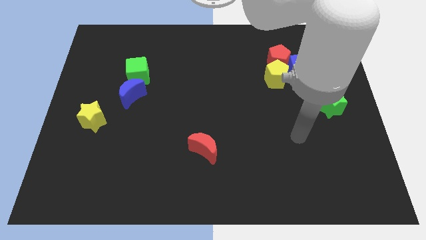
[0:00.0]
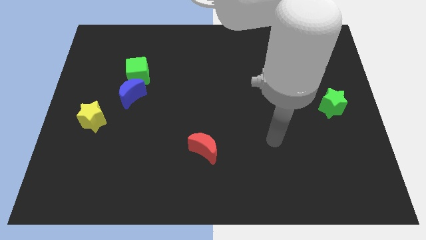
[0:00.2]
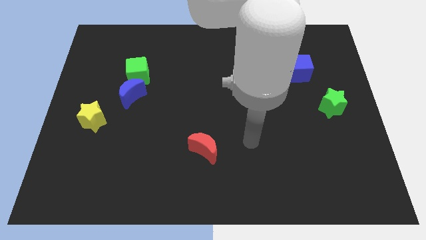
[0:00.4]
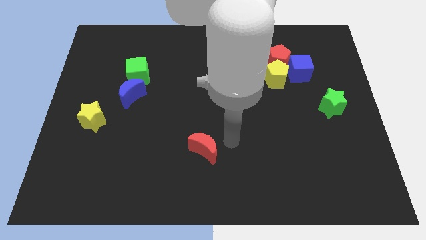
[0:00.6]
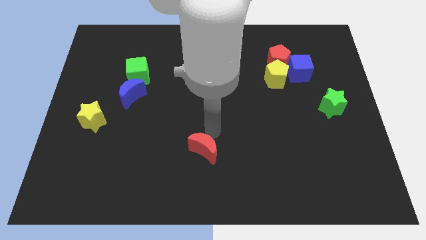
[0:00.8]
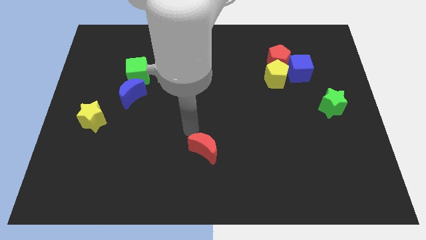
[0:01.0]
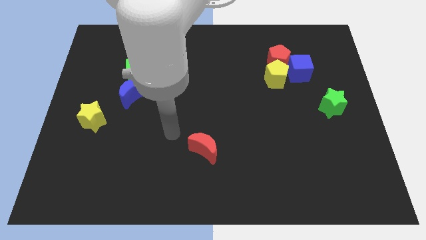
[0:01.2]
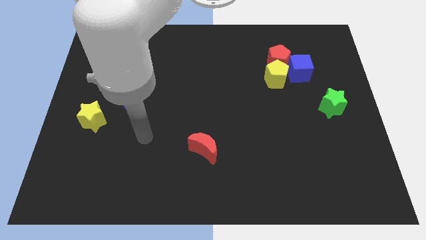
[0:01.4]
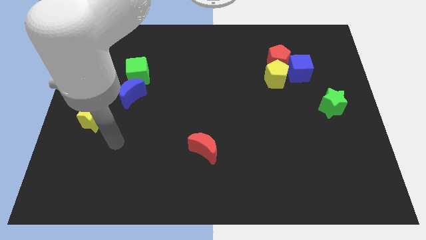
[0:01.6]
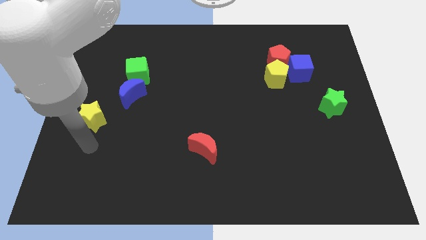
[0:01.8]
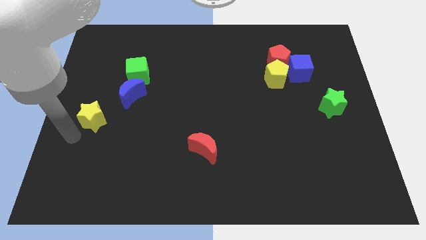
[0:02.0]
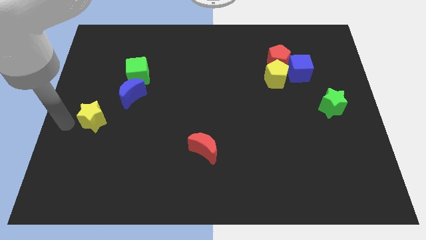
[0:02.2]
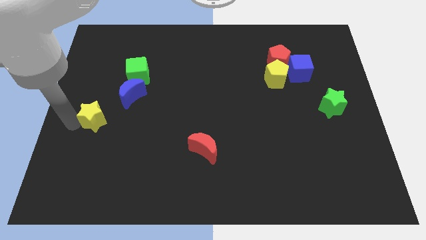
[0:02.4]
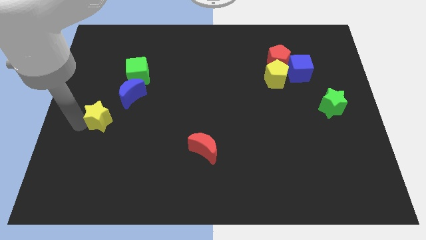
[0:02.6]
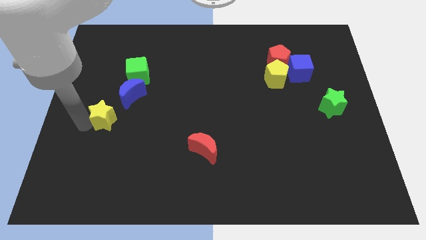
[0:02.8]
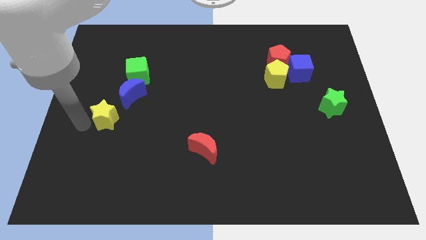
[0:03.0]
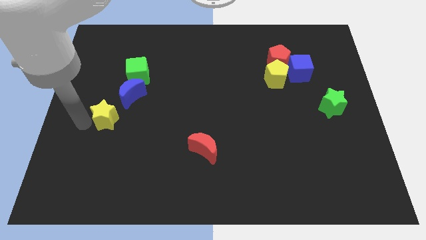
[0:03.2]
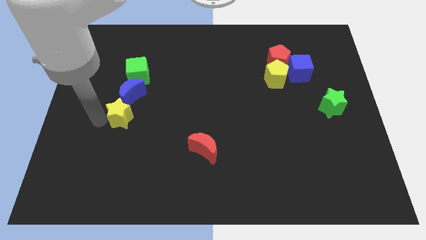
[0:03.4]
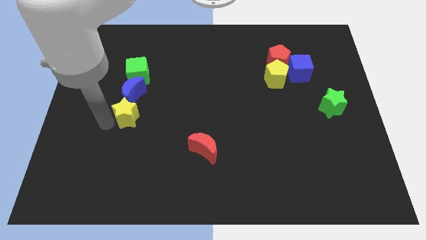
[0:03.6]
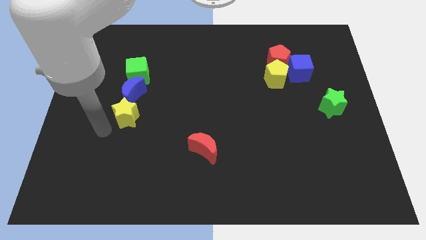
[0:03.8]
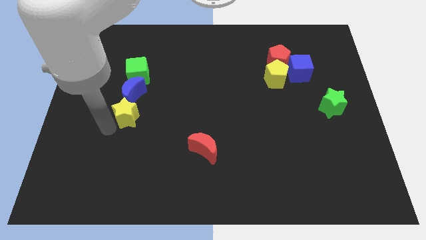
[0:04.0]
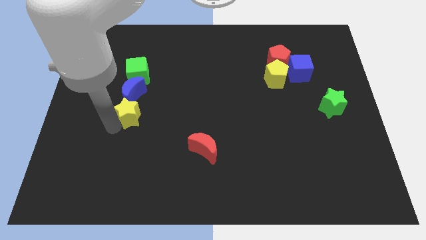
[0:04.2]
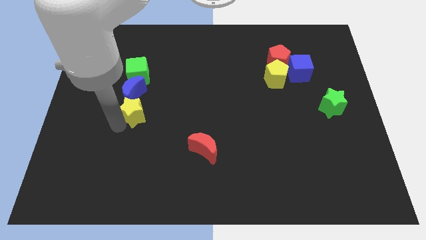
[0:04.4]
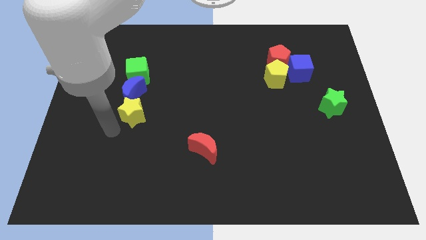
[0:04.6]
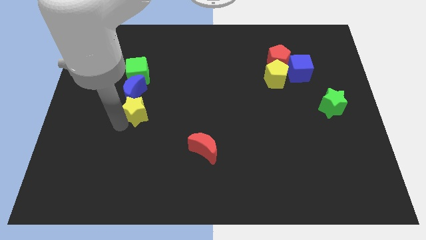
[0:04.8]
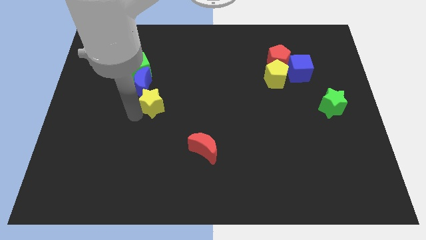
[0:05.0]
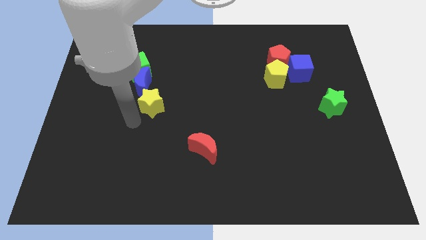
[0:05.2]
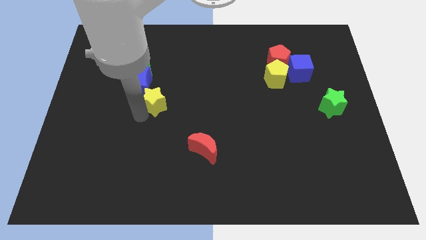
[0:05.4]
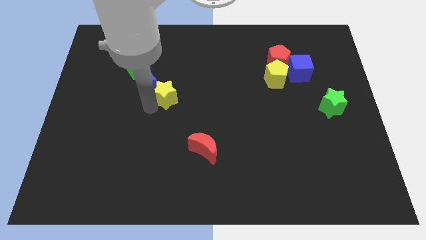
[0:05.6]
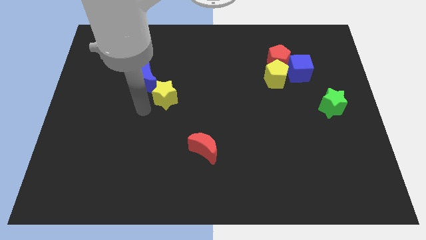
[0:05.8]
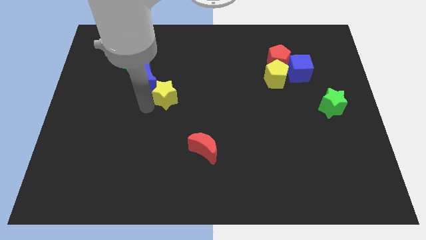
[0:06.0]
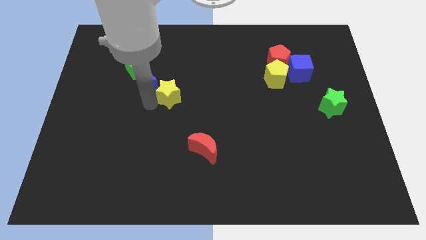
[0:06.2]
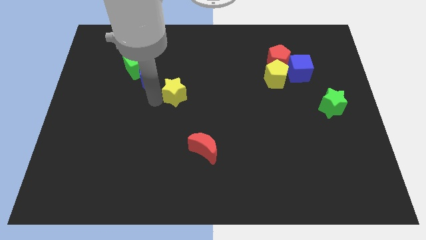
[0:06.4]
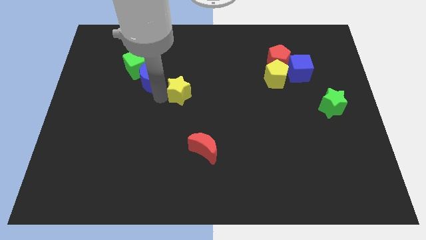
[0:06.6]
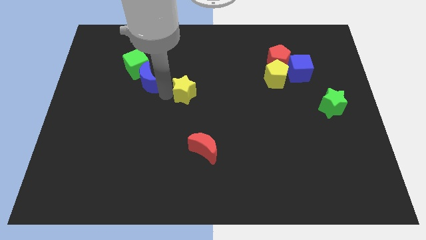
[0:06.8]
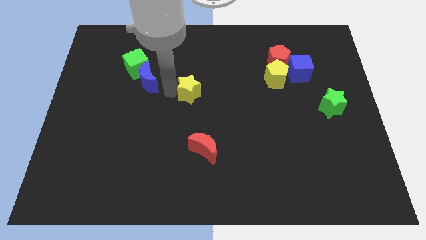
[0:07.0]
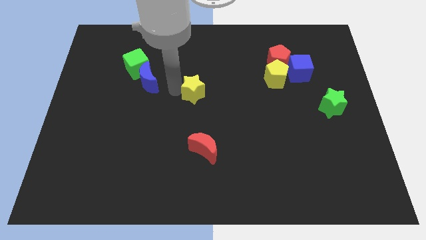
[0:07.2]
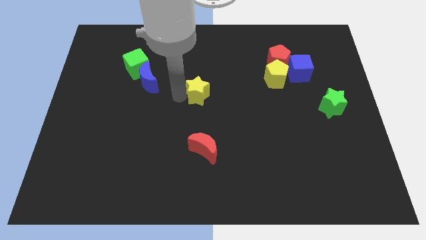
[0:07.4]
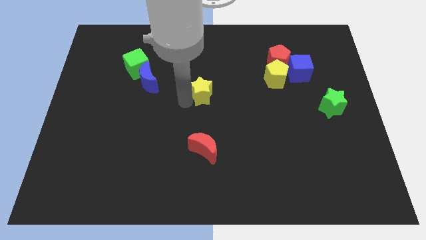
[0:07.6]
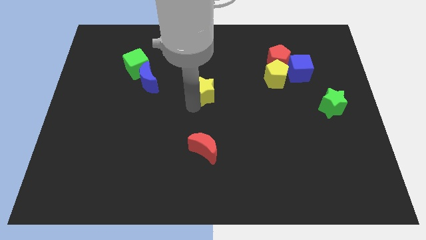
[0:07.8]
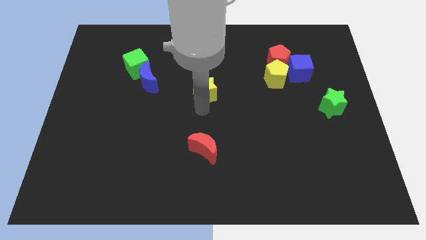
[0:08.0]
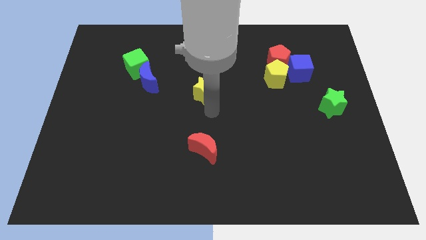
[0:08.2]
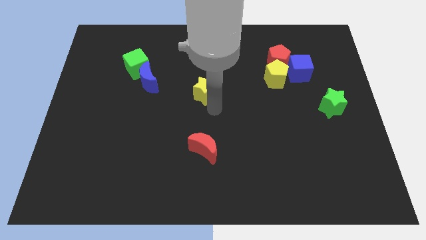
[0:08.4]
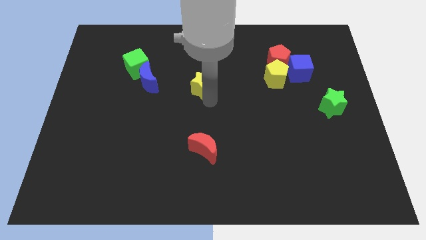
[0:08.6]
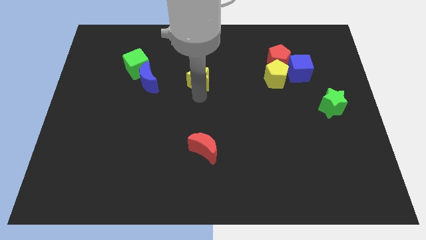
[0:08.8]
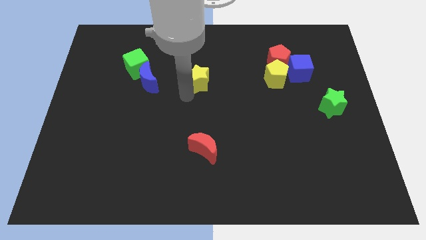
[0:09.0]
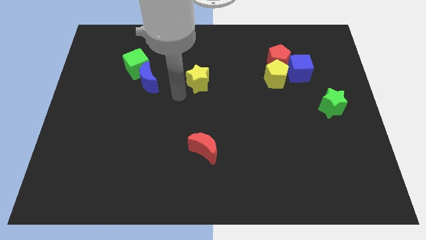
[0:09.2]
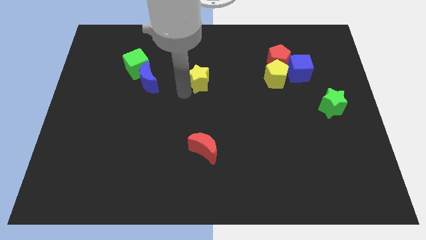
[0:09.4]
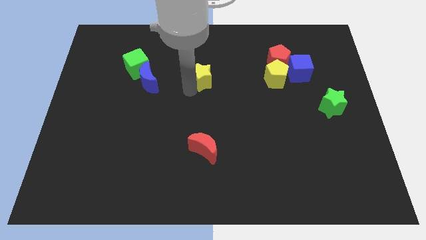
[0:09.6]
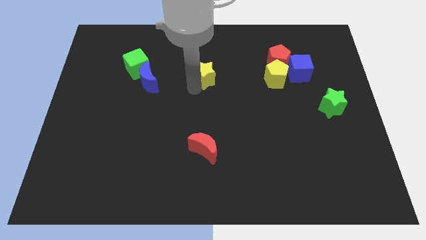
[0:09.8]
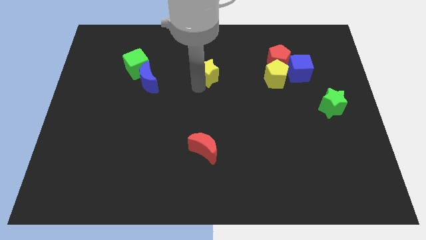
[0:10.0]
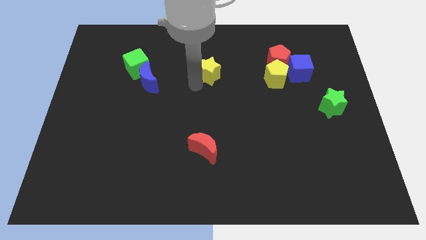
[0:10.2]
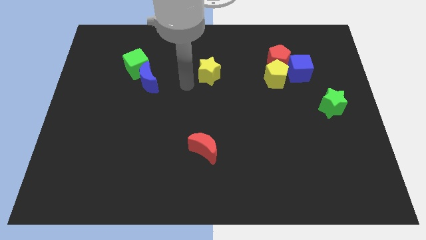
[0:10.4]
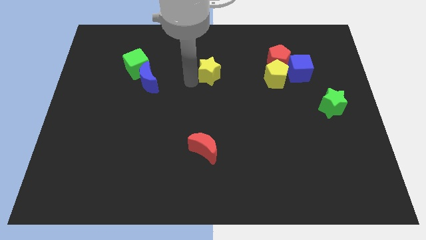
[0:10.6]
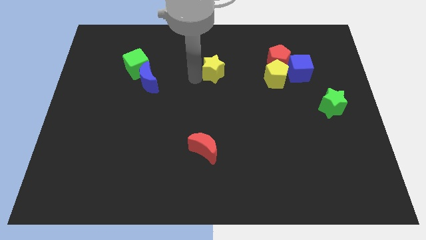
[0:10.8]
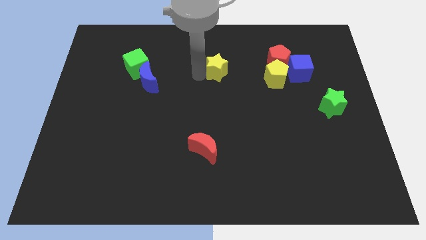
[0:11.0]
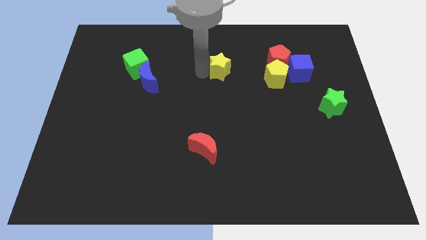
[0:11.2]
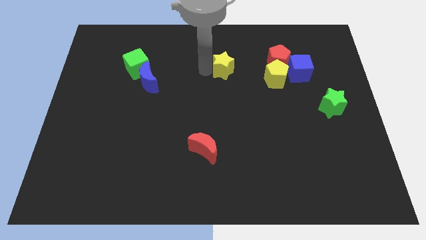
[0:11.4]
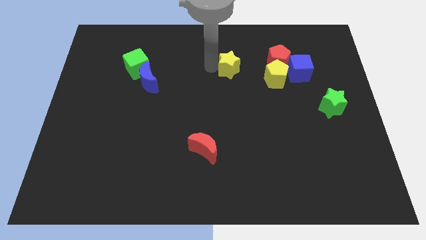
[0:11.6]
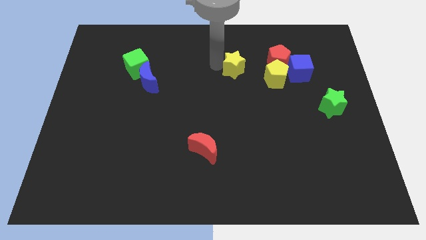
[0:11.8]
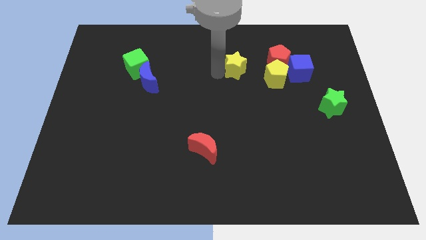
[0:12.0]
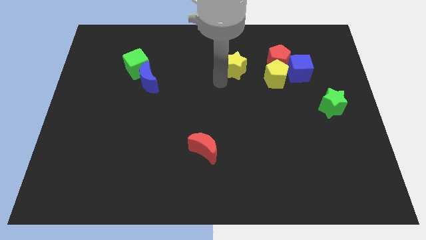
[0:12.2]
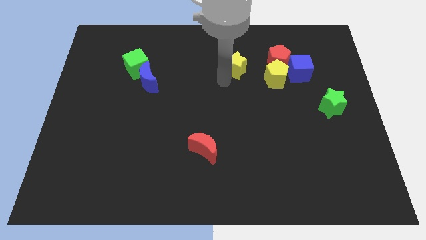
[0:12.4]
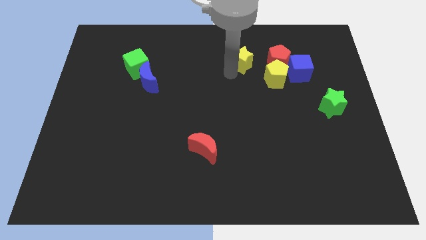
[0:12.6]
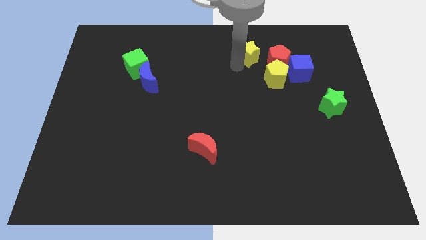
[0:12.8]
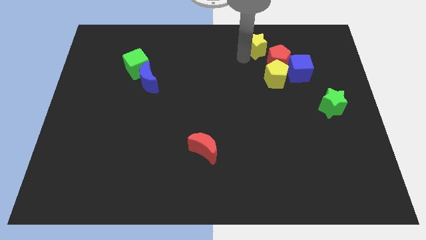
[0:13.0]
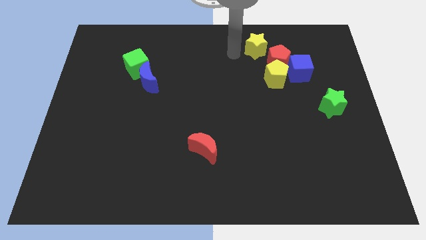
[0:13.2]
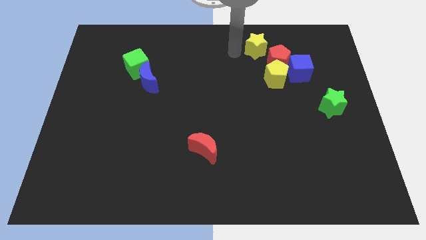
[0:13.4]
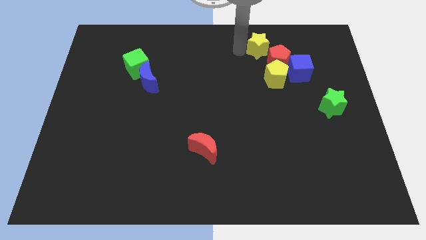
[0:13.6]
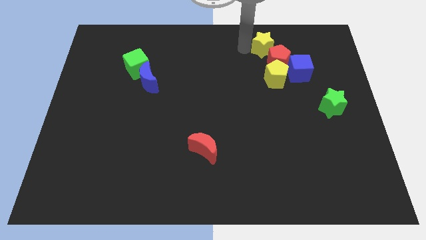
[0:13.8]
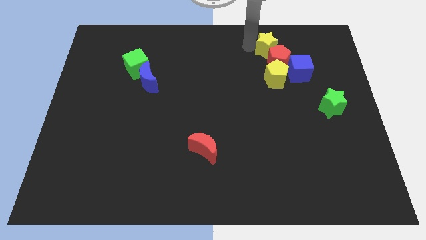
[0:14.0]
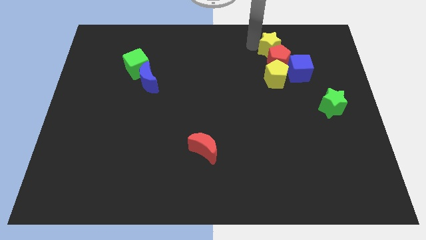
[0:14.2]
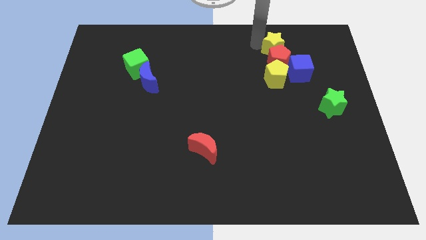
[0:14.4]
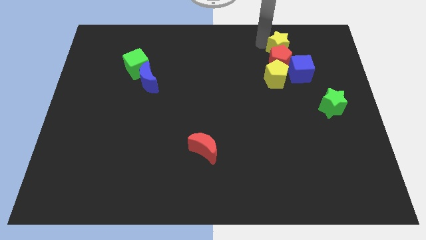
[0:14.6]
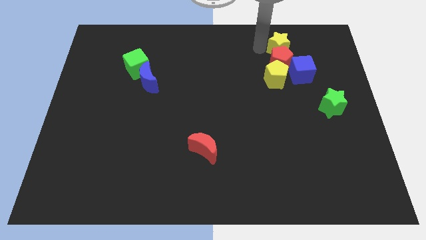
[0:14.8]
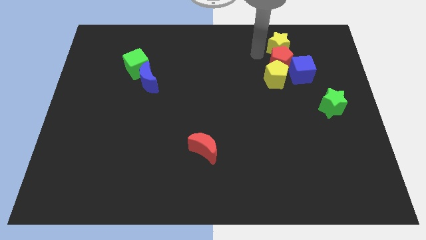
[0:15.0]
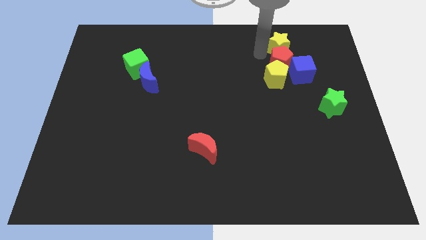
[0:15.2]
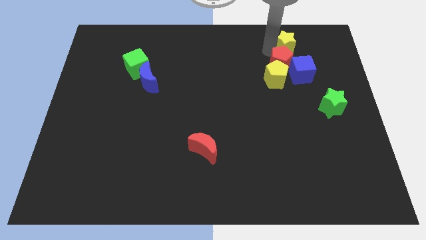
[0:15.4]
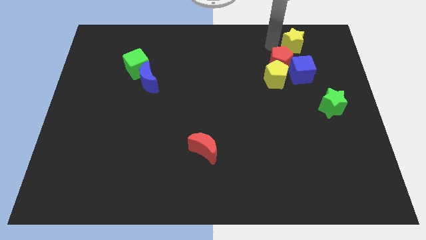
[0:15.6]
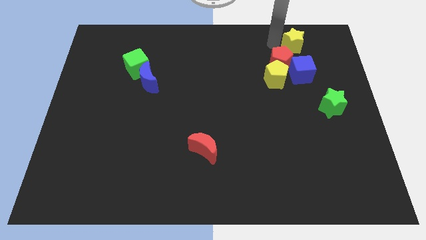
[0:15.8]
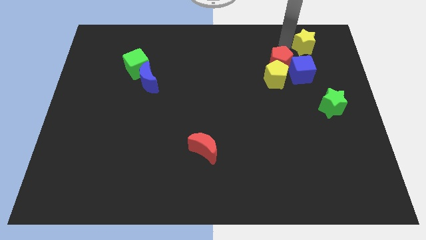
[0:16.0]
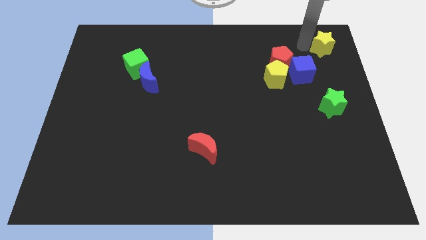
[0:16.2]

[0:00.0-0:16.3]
put the yellow star to the top right corner
